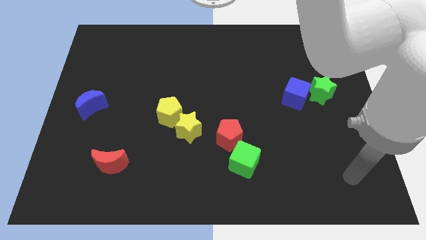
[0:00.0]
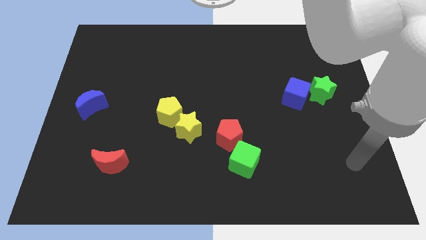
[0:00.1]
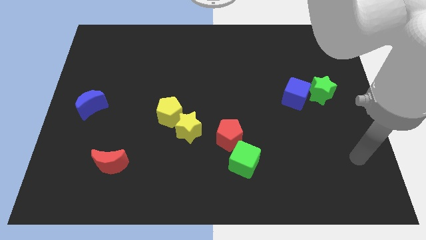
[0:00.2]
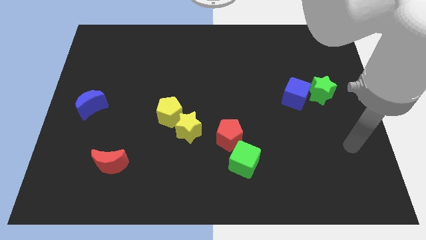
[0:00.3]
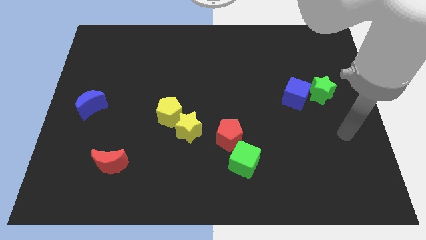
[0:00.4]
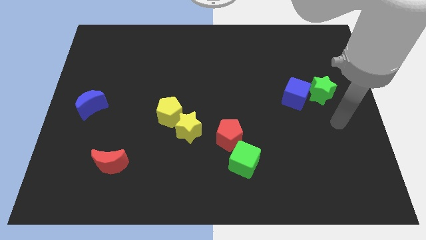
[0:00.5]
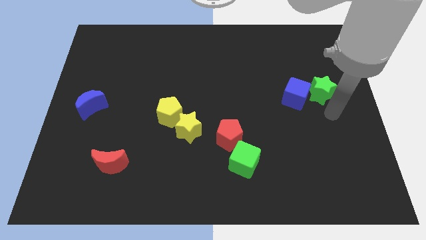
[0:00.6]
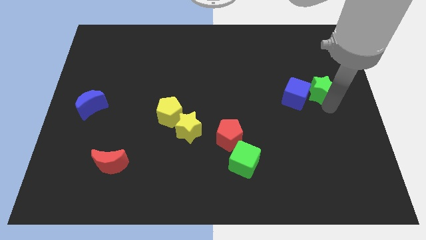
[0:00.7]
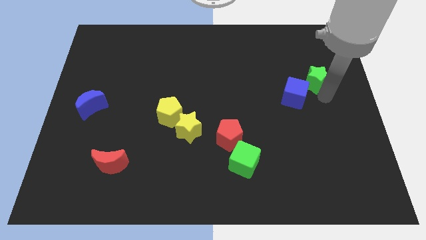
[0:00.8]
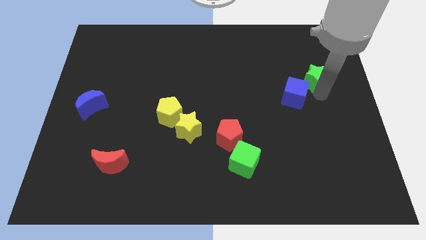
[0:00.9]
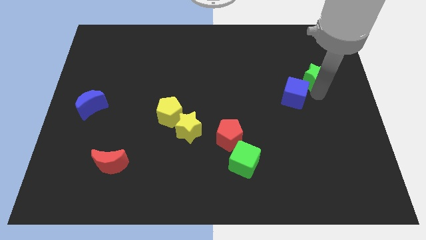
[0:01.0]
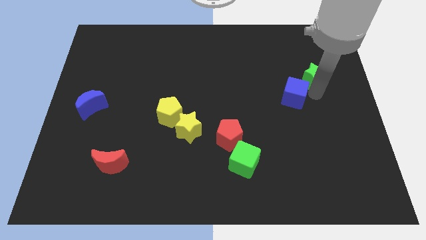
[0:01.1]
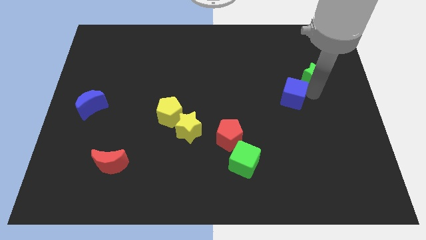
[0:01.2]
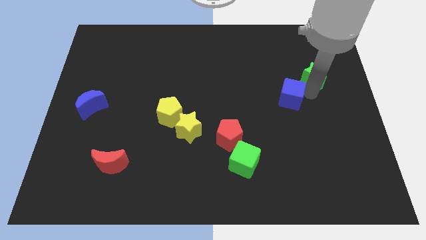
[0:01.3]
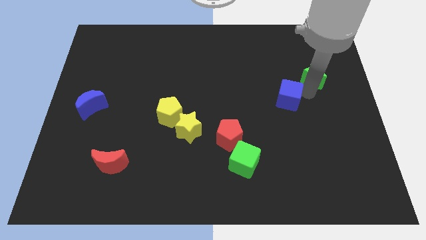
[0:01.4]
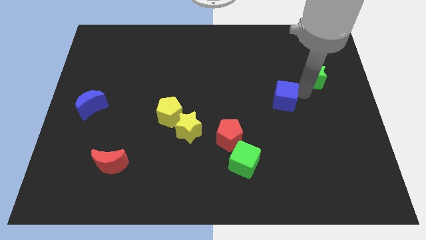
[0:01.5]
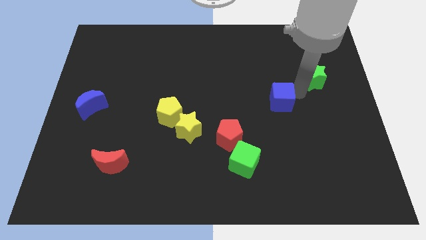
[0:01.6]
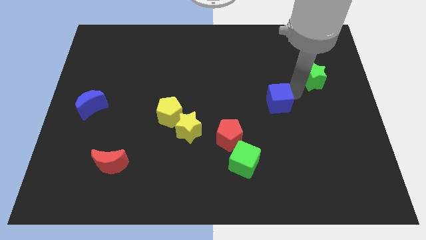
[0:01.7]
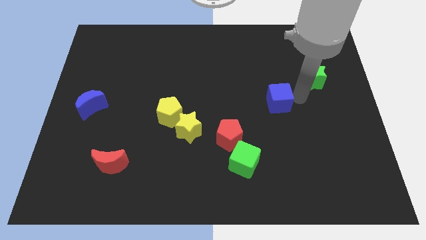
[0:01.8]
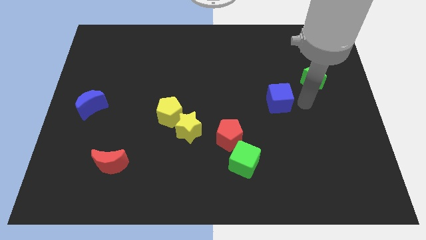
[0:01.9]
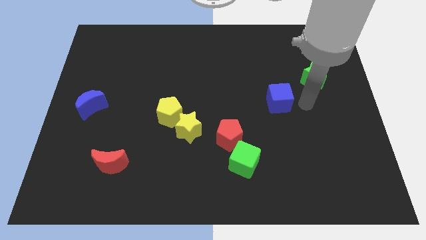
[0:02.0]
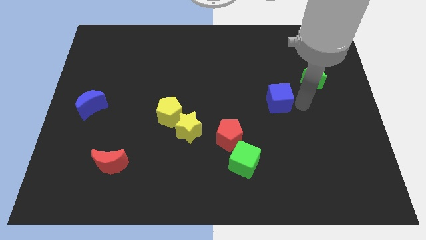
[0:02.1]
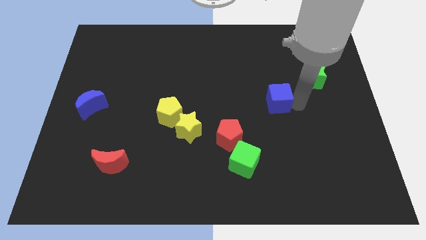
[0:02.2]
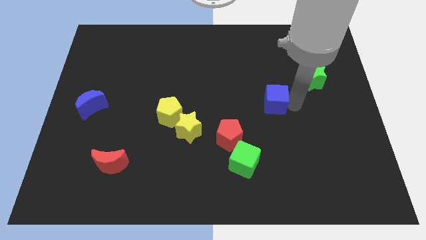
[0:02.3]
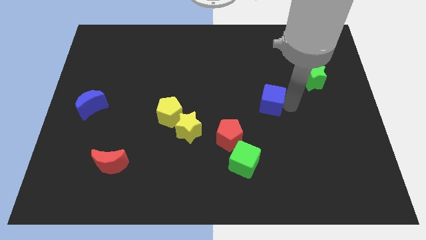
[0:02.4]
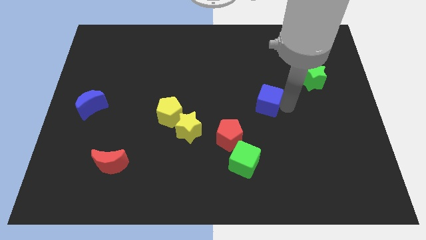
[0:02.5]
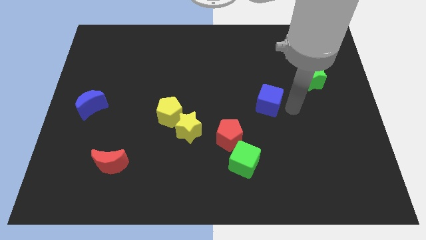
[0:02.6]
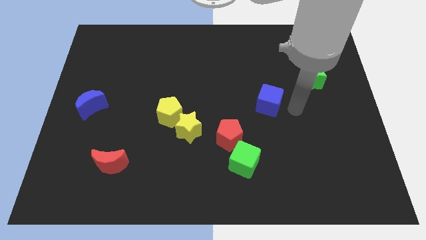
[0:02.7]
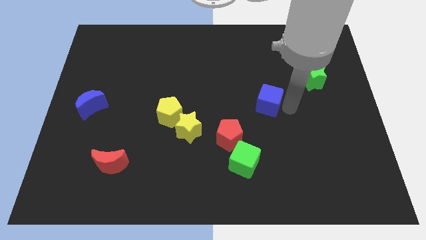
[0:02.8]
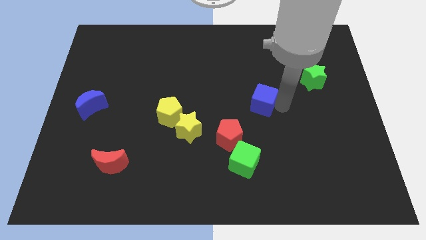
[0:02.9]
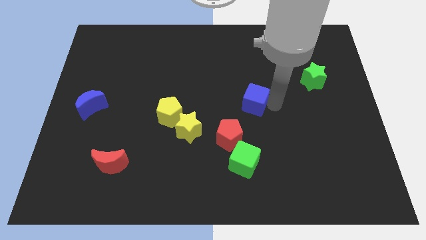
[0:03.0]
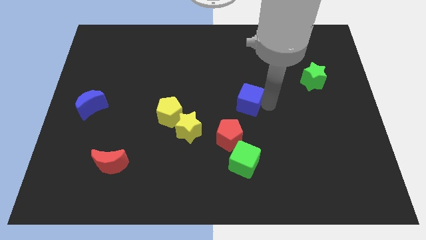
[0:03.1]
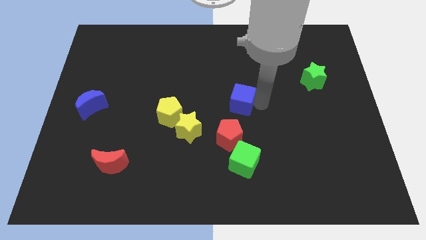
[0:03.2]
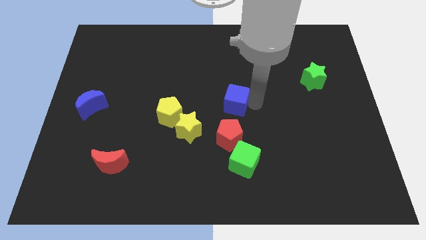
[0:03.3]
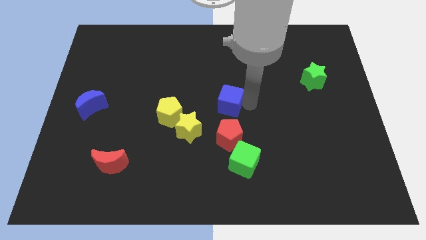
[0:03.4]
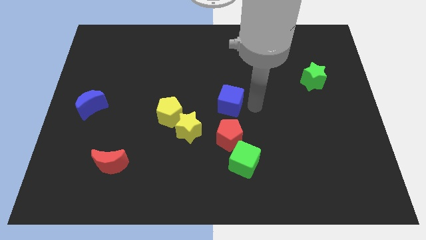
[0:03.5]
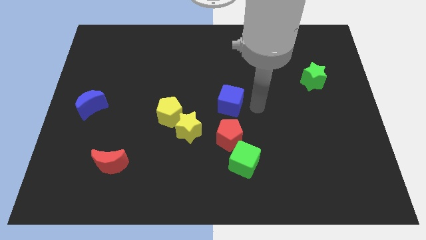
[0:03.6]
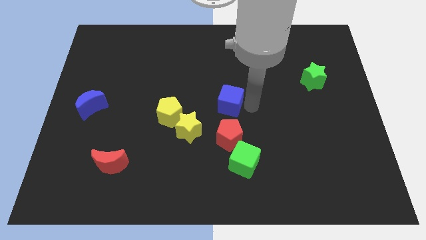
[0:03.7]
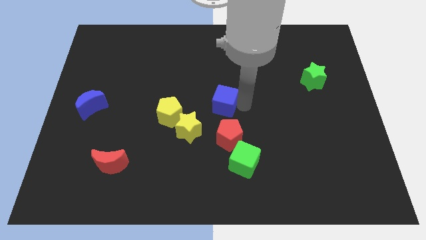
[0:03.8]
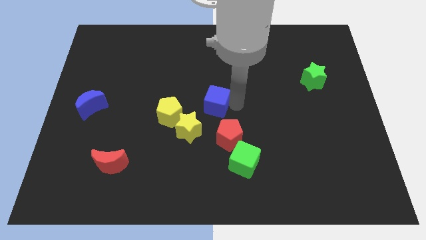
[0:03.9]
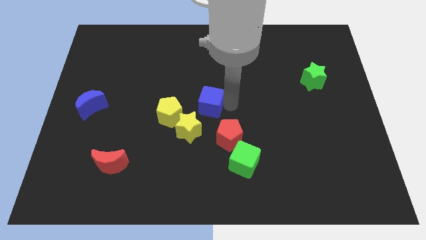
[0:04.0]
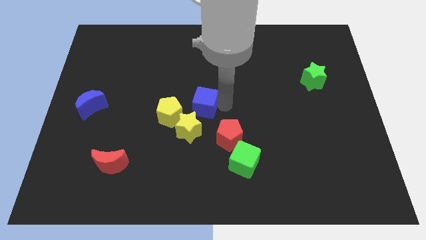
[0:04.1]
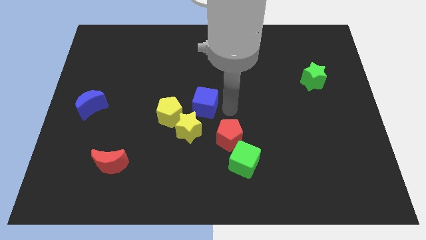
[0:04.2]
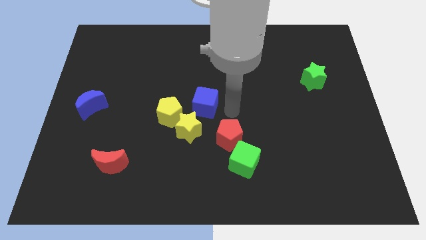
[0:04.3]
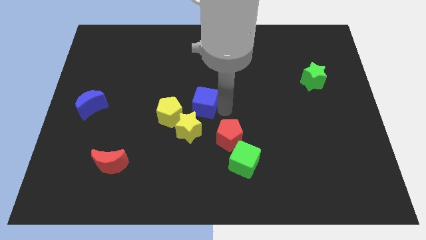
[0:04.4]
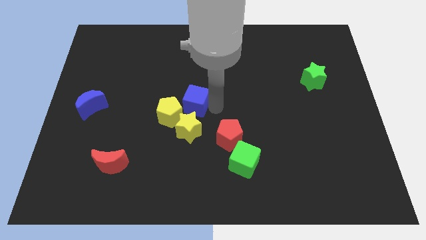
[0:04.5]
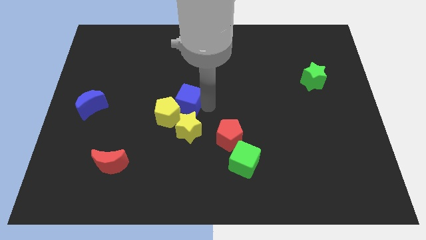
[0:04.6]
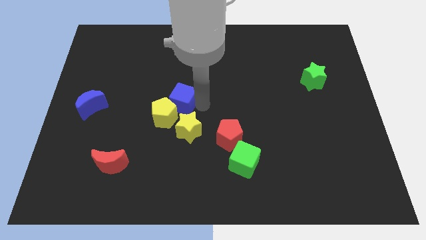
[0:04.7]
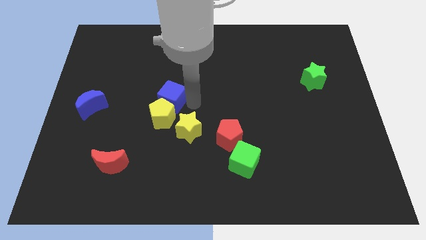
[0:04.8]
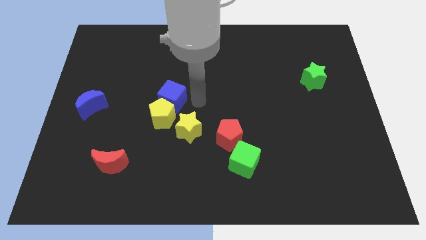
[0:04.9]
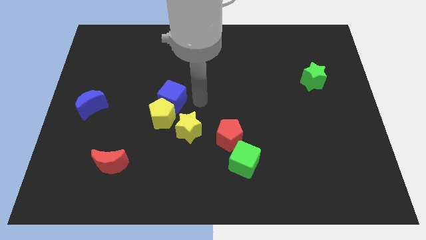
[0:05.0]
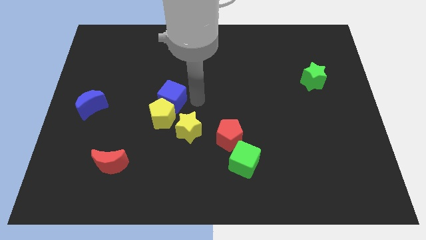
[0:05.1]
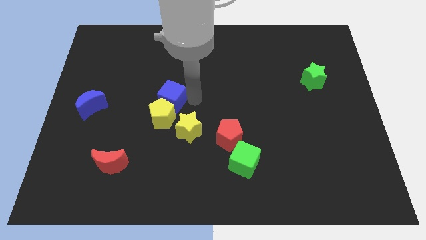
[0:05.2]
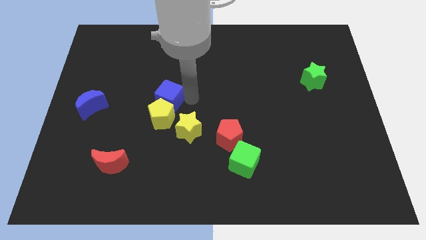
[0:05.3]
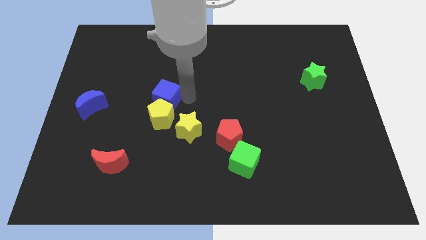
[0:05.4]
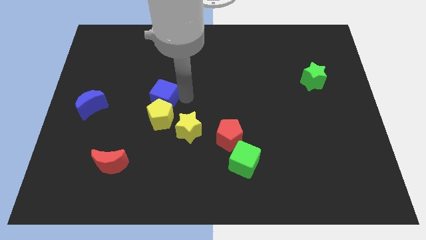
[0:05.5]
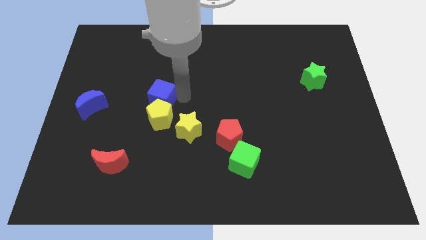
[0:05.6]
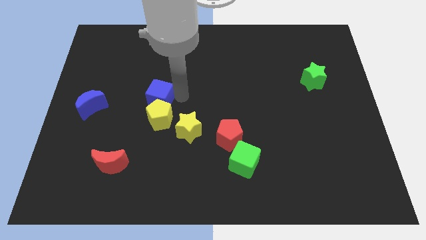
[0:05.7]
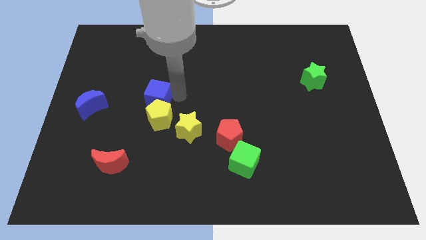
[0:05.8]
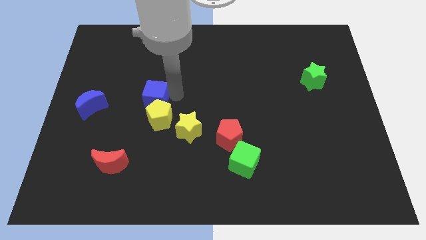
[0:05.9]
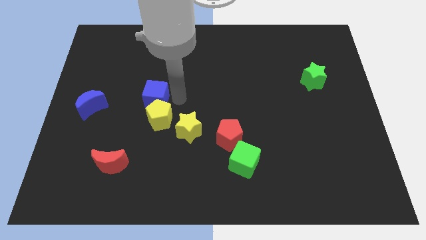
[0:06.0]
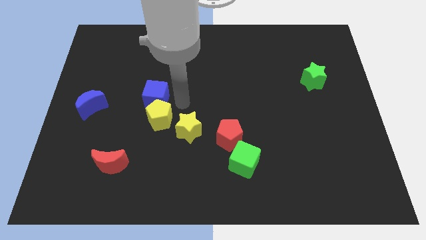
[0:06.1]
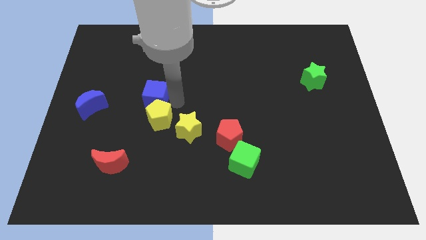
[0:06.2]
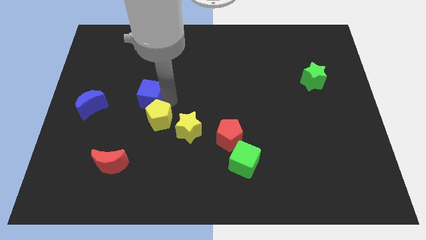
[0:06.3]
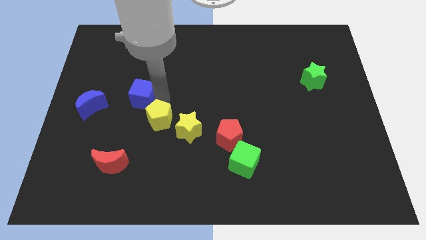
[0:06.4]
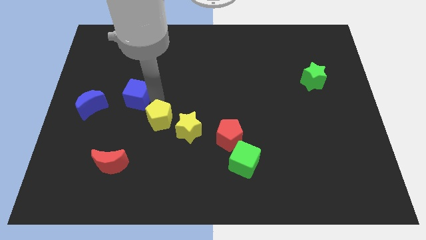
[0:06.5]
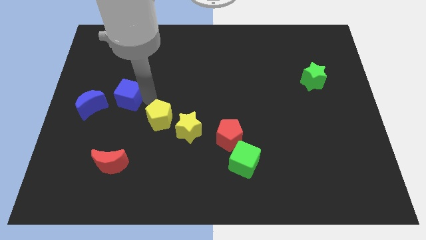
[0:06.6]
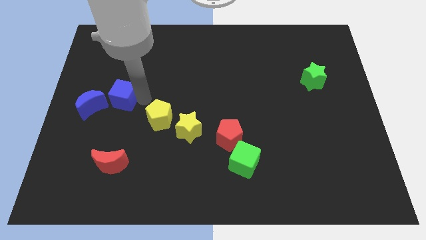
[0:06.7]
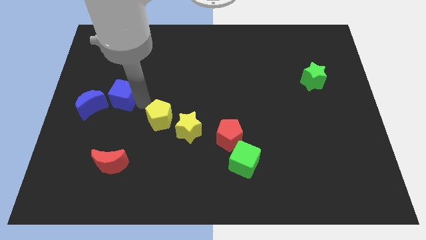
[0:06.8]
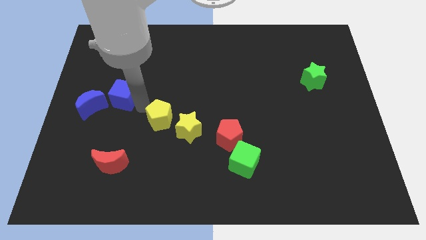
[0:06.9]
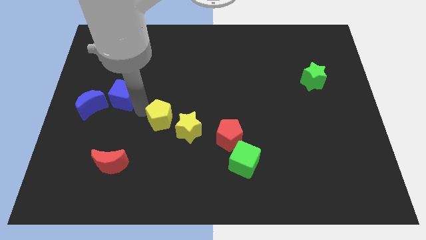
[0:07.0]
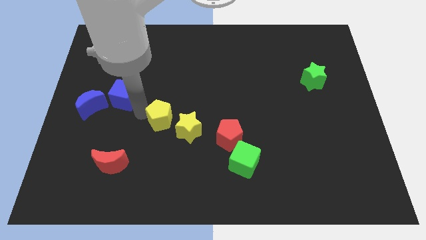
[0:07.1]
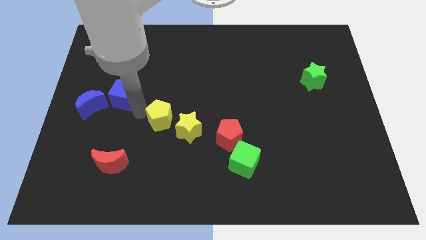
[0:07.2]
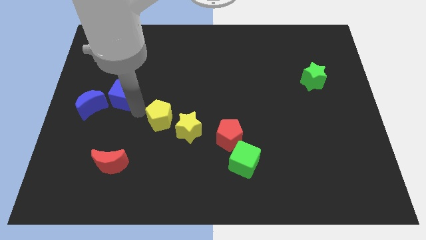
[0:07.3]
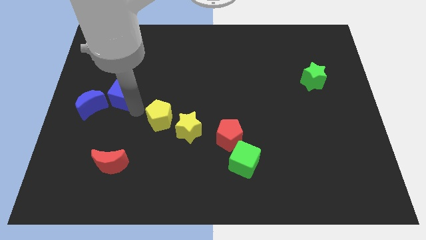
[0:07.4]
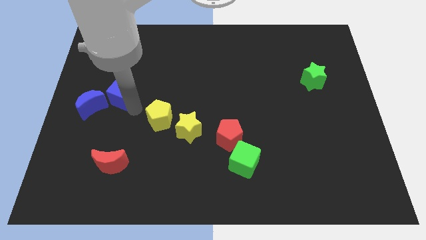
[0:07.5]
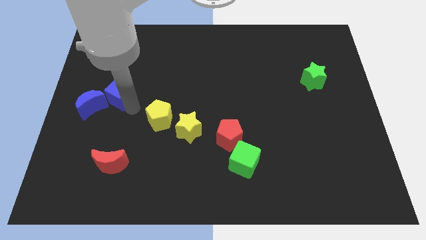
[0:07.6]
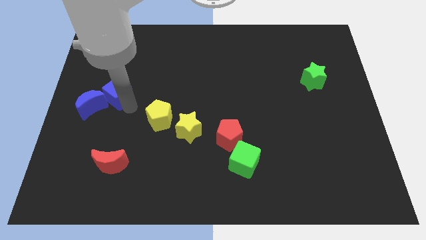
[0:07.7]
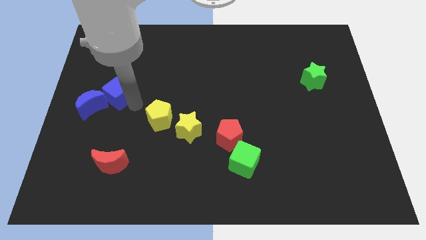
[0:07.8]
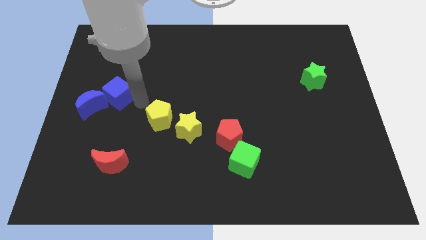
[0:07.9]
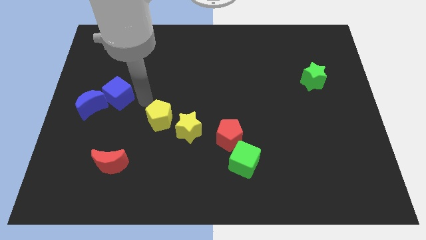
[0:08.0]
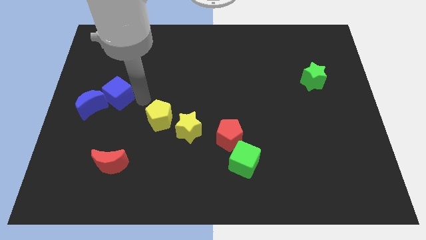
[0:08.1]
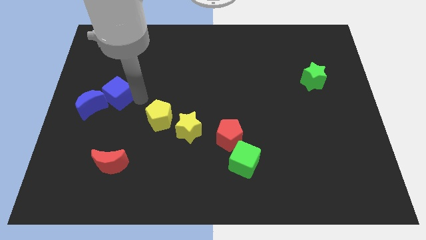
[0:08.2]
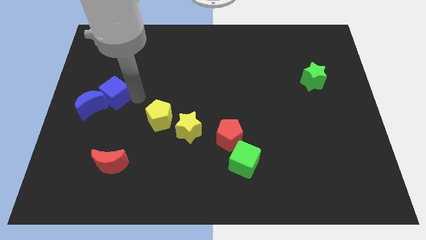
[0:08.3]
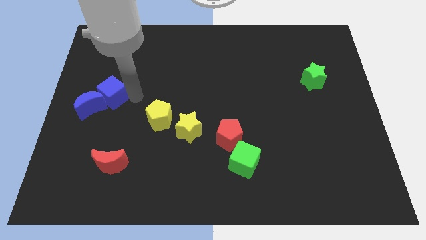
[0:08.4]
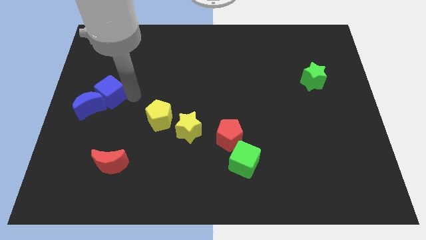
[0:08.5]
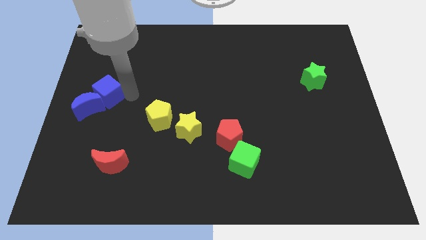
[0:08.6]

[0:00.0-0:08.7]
move the blue cube to the left side
